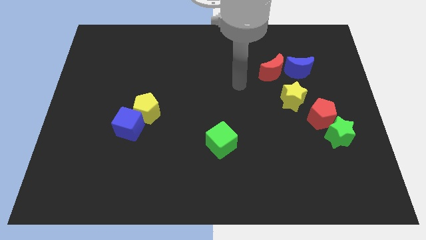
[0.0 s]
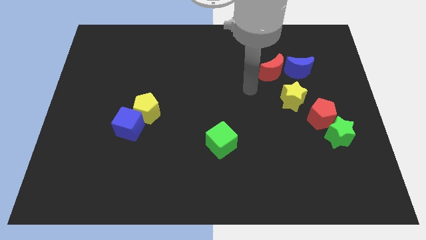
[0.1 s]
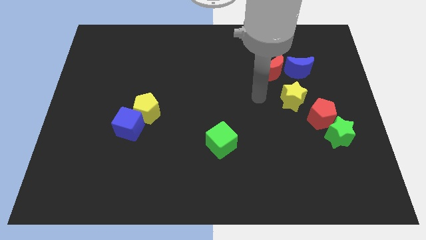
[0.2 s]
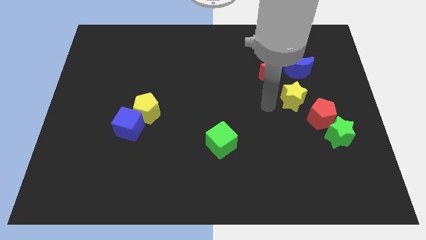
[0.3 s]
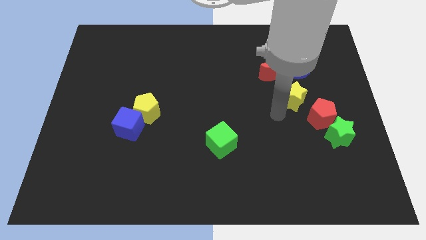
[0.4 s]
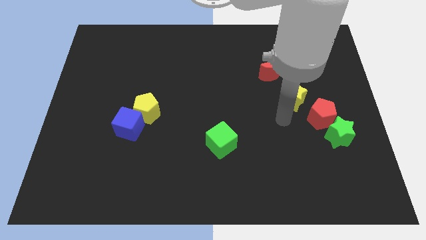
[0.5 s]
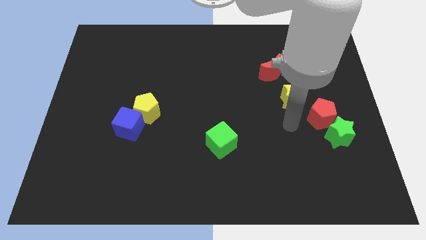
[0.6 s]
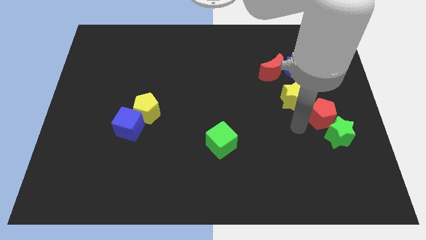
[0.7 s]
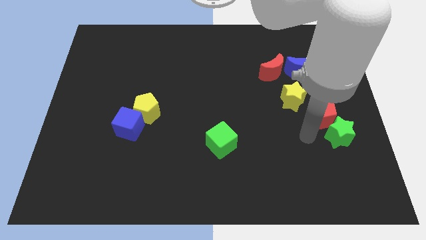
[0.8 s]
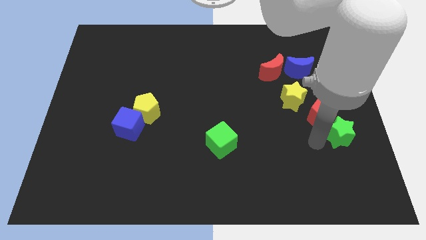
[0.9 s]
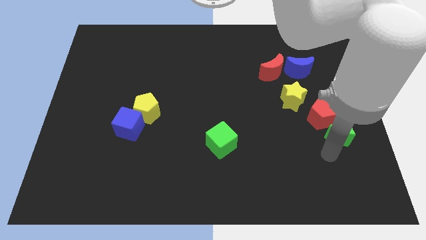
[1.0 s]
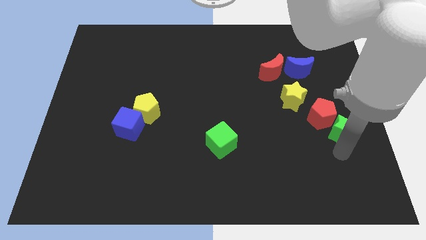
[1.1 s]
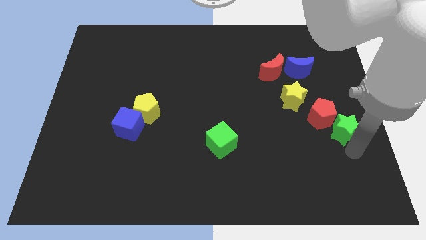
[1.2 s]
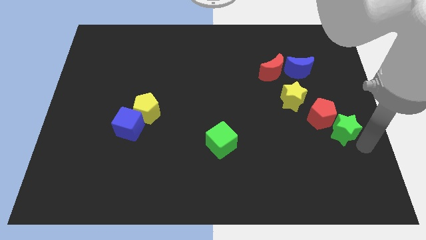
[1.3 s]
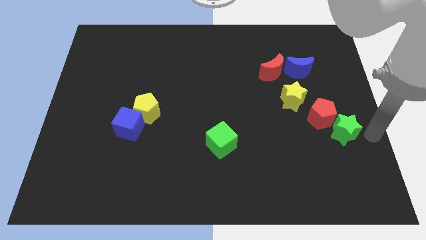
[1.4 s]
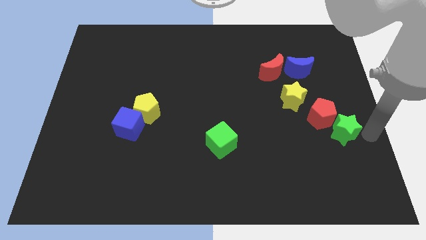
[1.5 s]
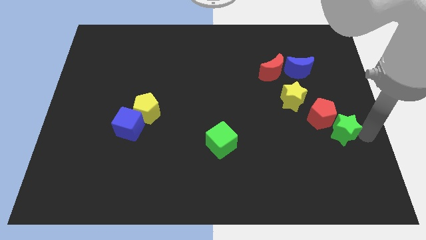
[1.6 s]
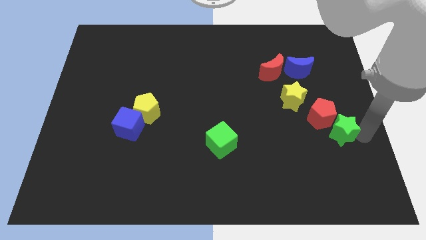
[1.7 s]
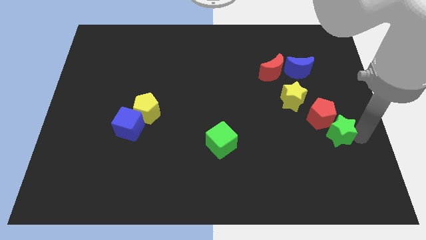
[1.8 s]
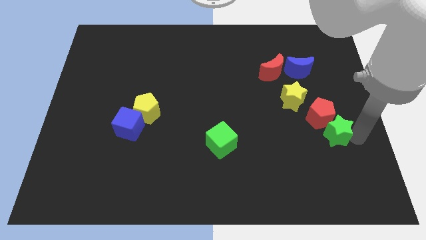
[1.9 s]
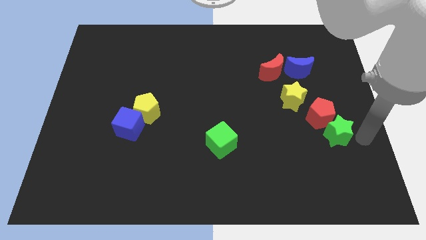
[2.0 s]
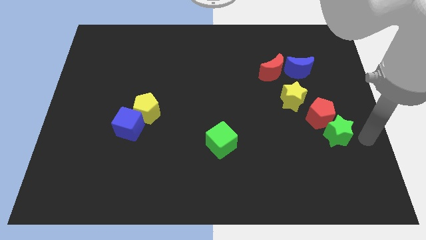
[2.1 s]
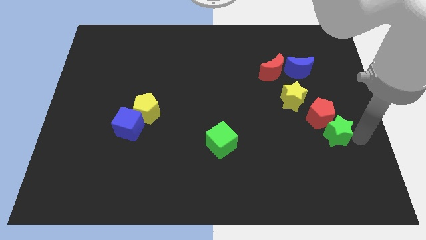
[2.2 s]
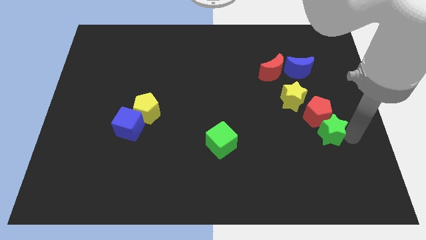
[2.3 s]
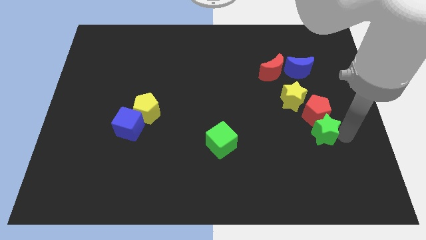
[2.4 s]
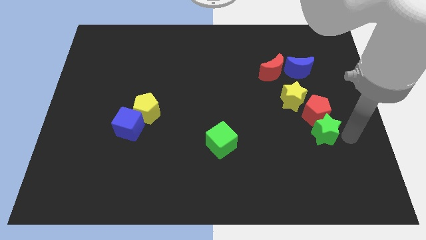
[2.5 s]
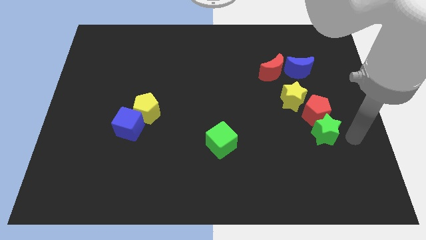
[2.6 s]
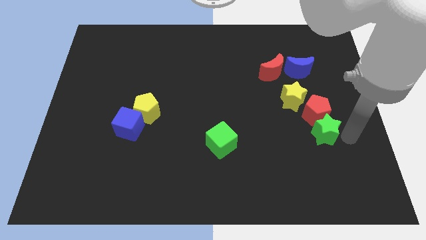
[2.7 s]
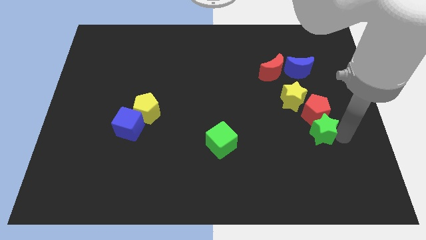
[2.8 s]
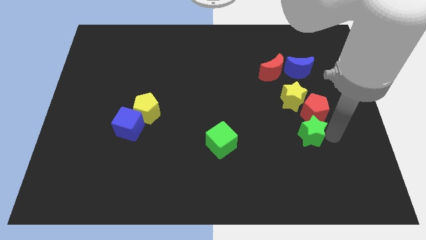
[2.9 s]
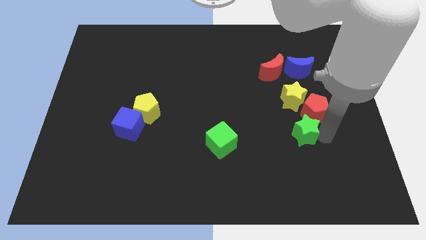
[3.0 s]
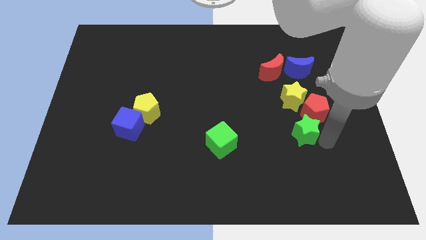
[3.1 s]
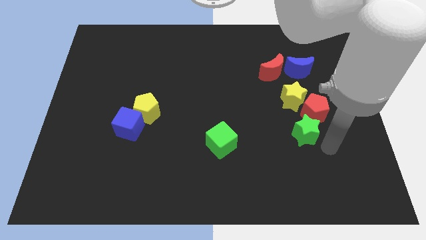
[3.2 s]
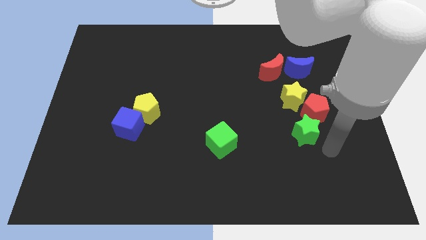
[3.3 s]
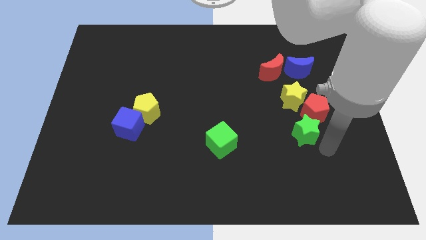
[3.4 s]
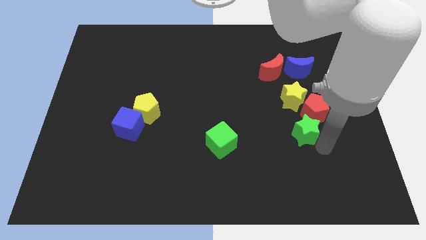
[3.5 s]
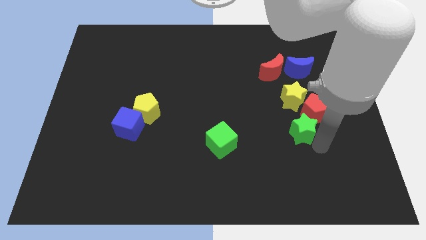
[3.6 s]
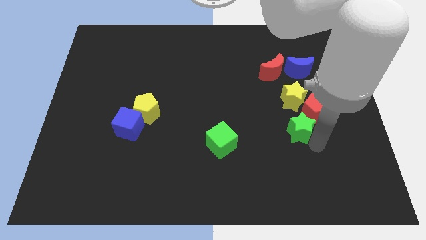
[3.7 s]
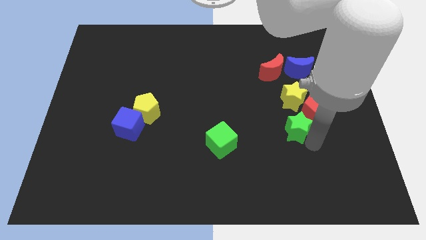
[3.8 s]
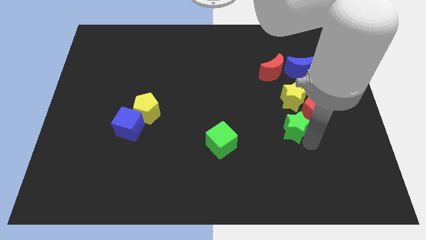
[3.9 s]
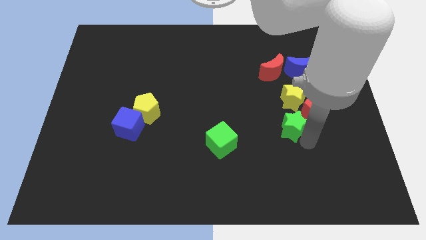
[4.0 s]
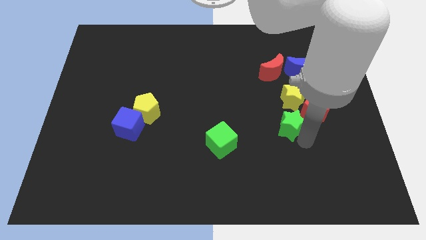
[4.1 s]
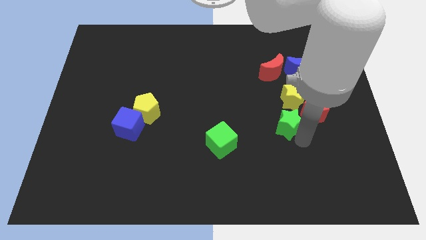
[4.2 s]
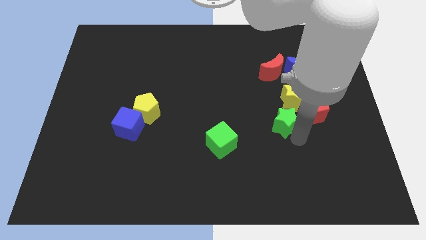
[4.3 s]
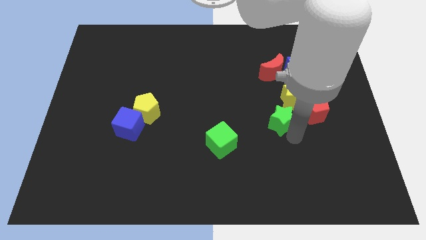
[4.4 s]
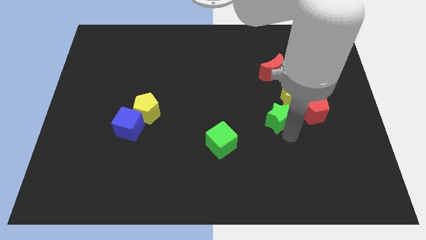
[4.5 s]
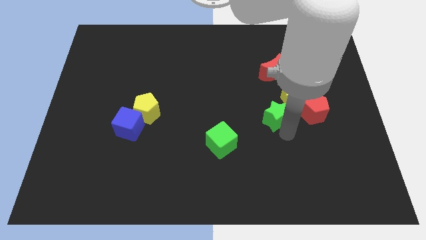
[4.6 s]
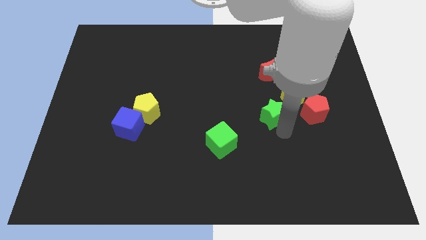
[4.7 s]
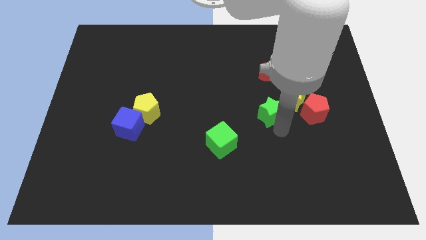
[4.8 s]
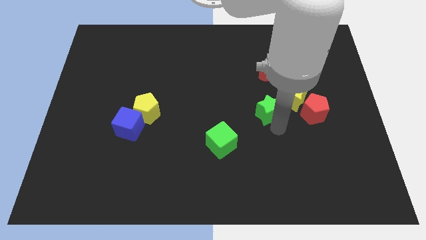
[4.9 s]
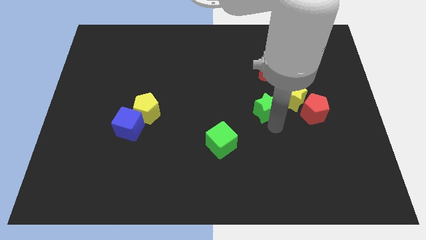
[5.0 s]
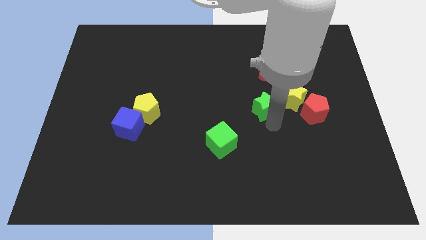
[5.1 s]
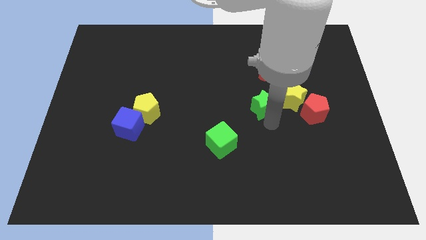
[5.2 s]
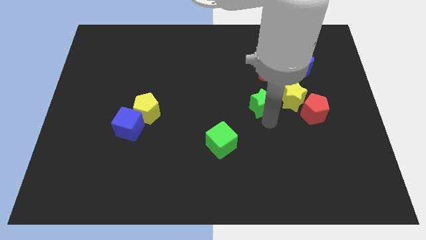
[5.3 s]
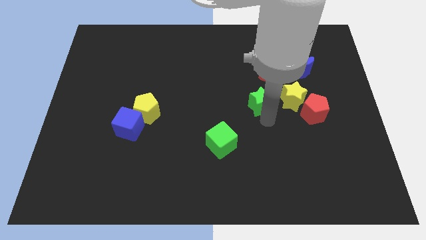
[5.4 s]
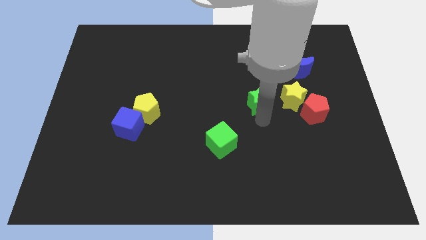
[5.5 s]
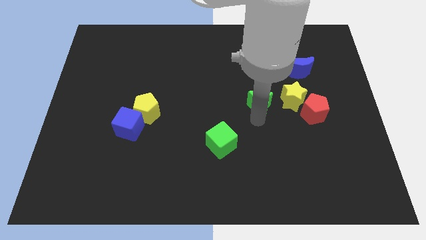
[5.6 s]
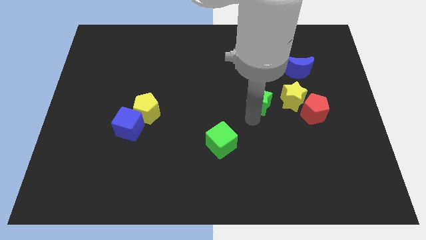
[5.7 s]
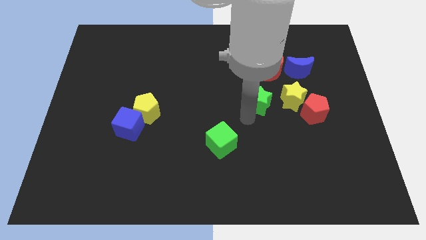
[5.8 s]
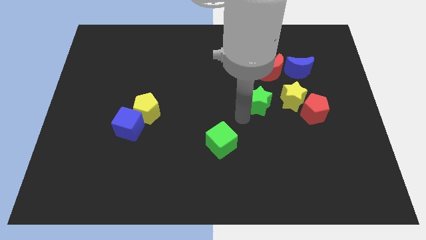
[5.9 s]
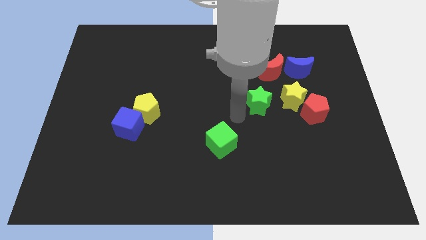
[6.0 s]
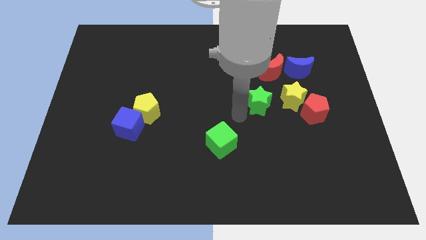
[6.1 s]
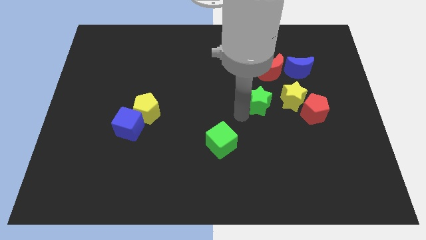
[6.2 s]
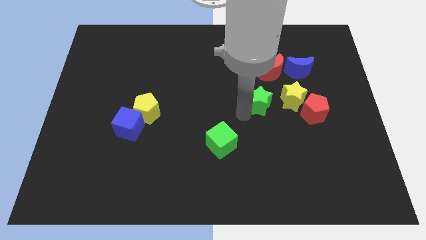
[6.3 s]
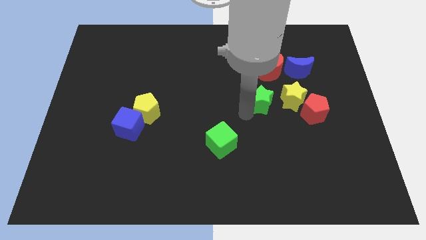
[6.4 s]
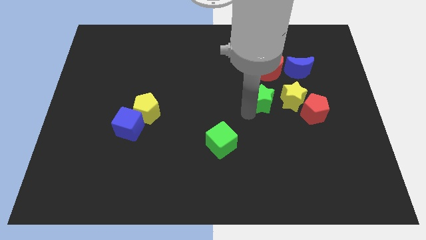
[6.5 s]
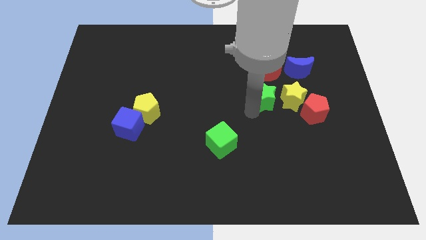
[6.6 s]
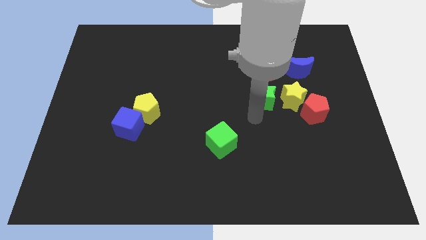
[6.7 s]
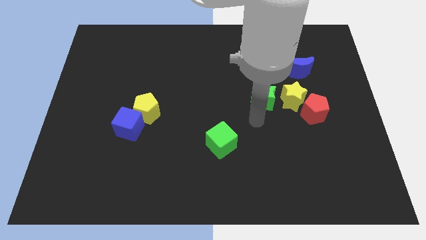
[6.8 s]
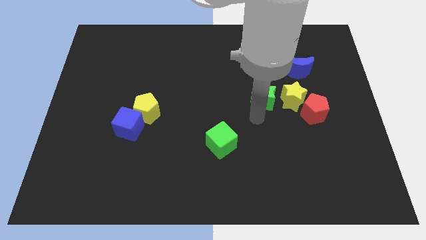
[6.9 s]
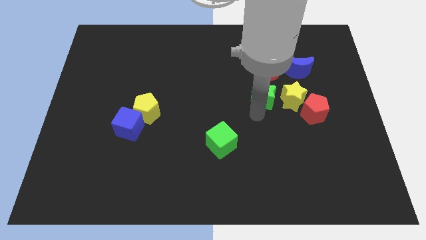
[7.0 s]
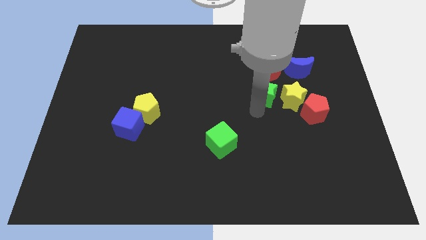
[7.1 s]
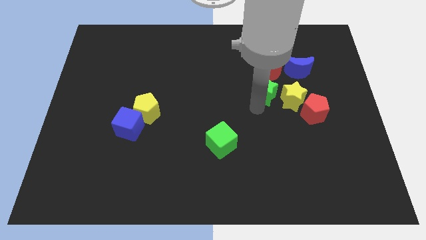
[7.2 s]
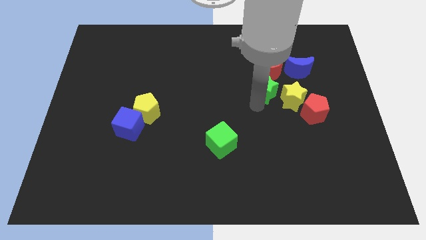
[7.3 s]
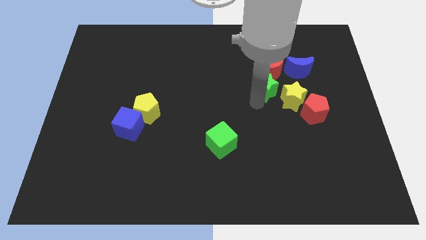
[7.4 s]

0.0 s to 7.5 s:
slide the green star next to the red moon

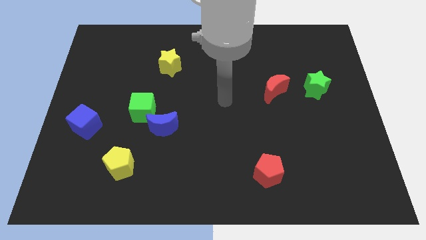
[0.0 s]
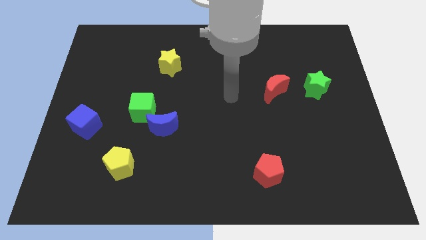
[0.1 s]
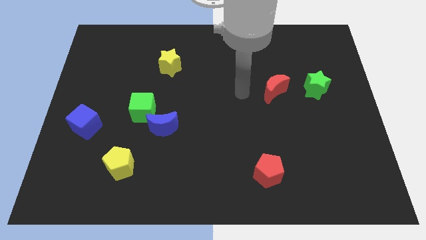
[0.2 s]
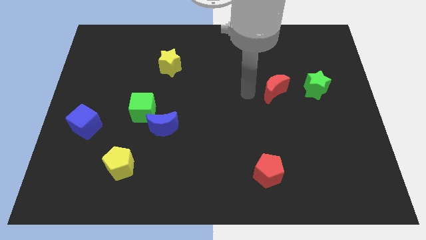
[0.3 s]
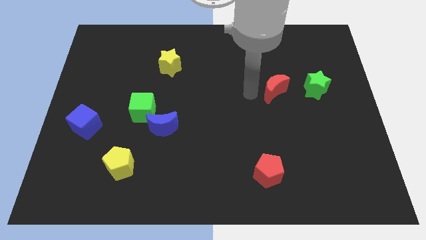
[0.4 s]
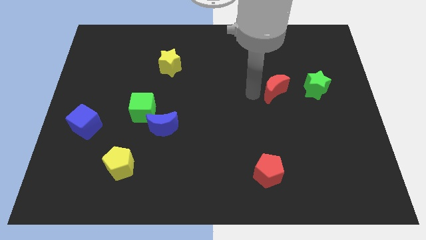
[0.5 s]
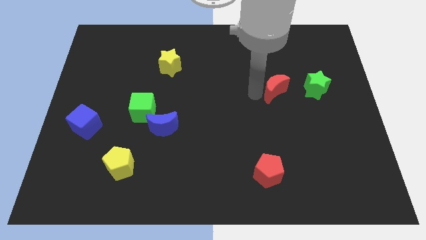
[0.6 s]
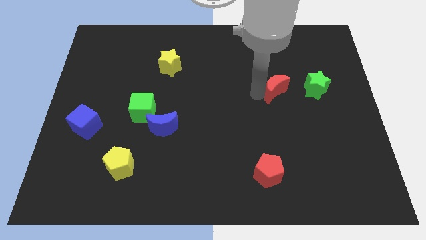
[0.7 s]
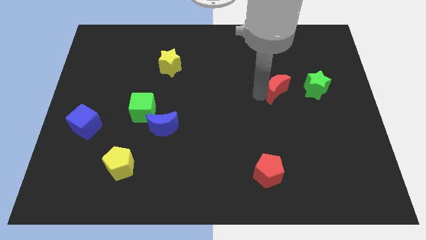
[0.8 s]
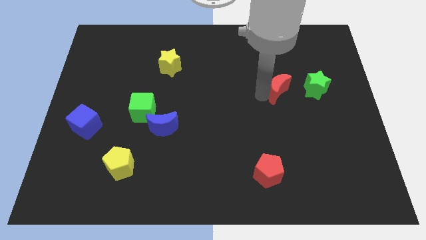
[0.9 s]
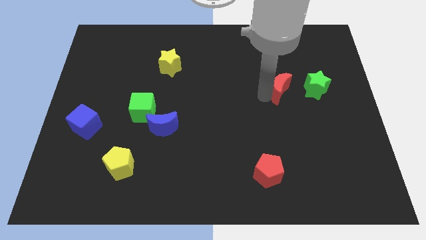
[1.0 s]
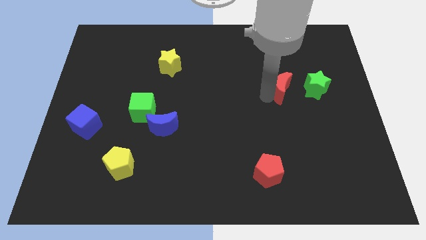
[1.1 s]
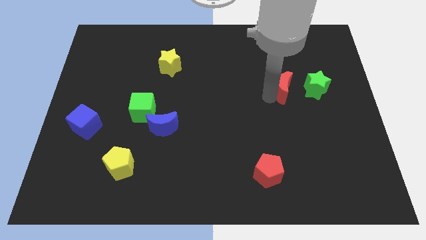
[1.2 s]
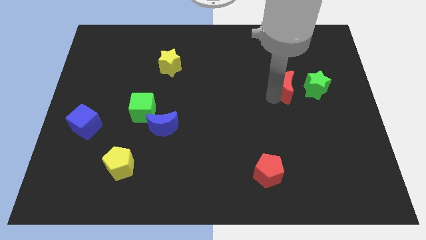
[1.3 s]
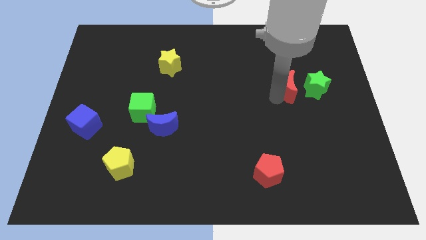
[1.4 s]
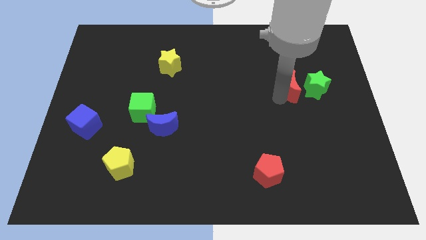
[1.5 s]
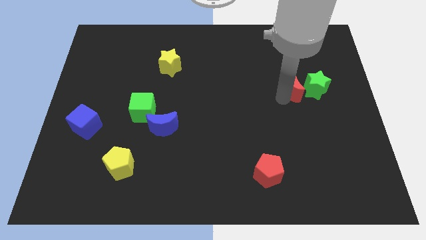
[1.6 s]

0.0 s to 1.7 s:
slide the red moon close to the green star
